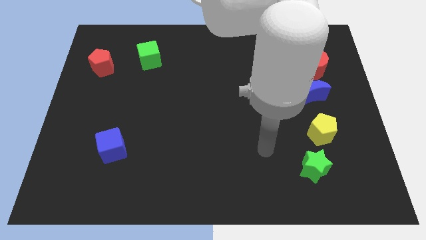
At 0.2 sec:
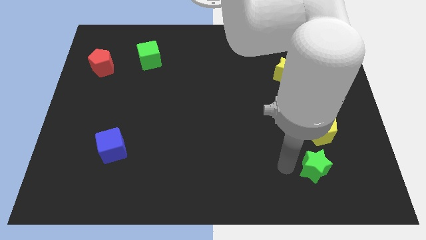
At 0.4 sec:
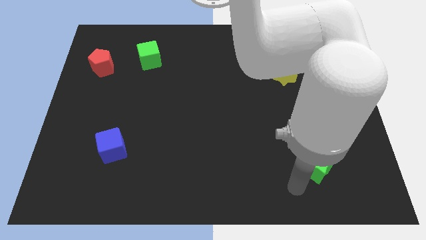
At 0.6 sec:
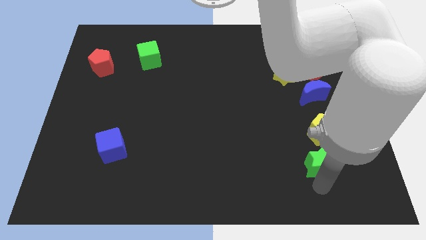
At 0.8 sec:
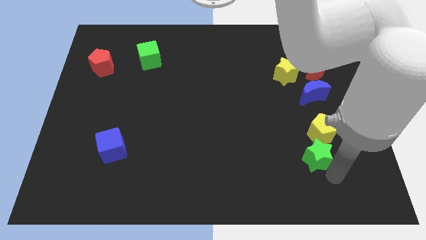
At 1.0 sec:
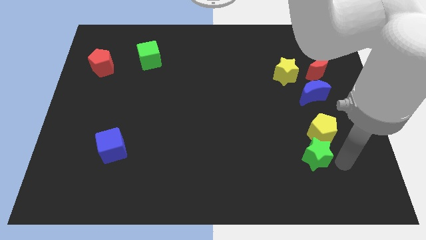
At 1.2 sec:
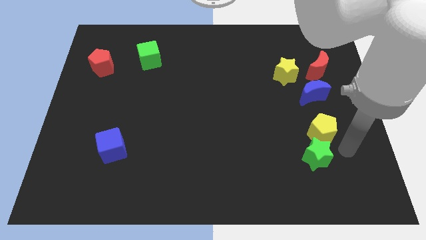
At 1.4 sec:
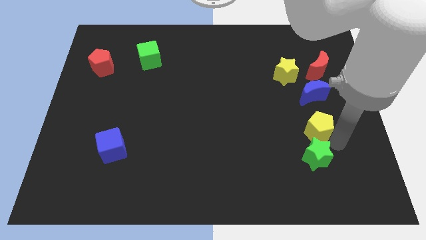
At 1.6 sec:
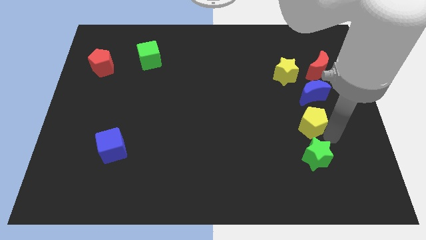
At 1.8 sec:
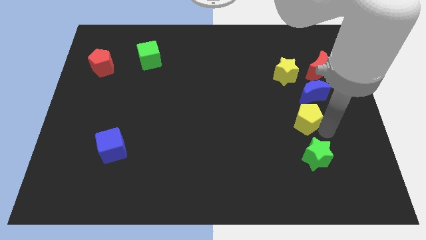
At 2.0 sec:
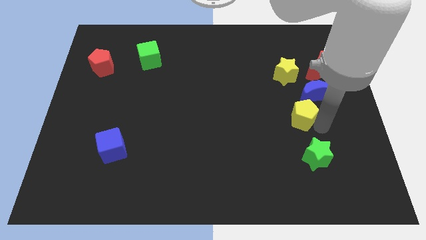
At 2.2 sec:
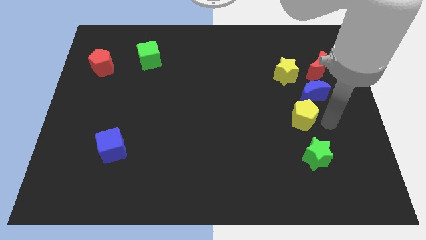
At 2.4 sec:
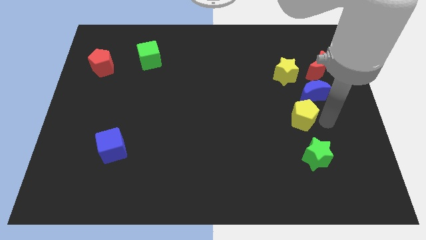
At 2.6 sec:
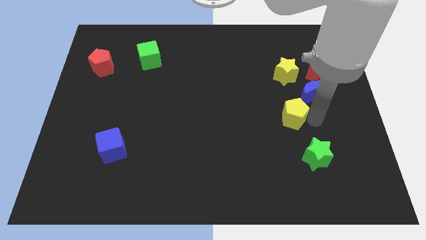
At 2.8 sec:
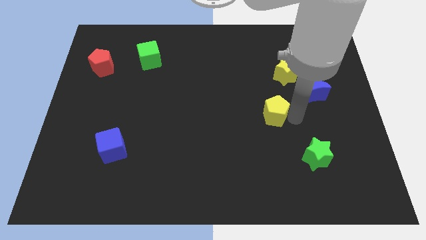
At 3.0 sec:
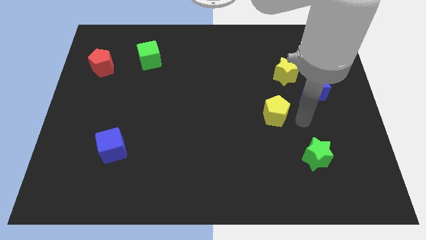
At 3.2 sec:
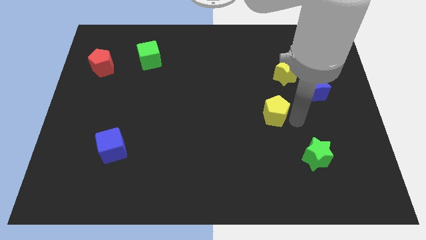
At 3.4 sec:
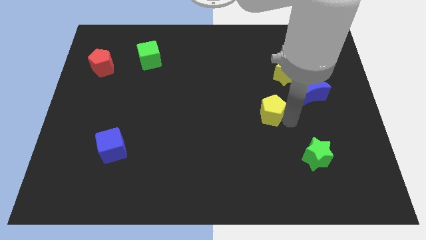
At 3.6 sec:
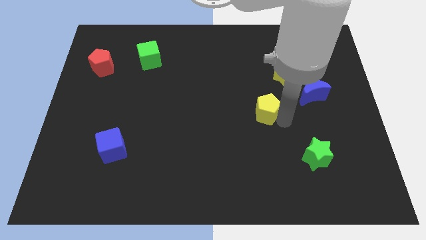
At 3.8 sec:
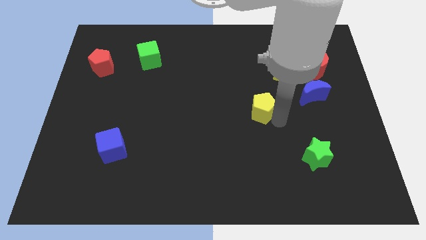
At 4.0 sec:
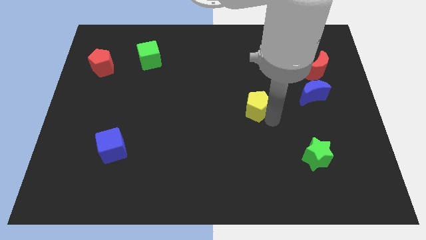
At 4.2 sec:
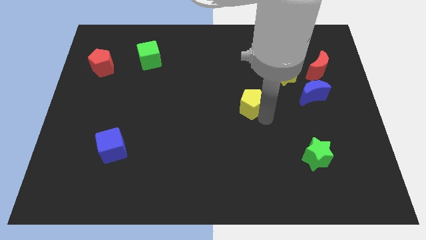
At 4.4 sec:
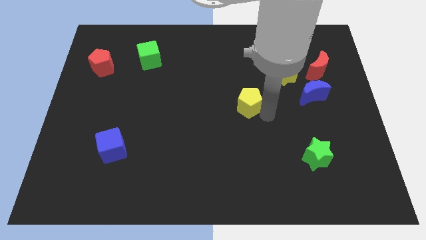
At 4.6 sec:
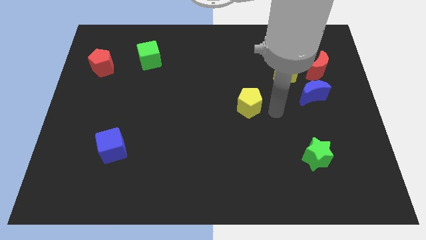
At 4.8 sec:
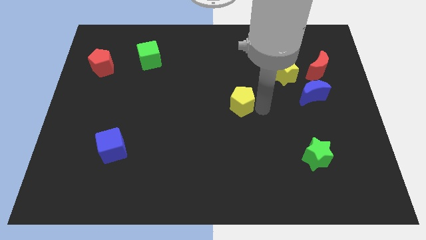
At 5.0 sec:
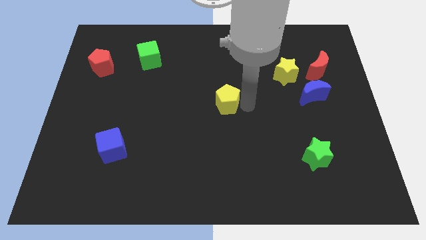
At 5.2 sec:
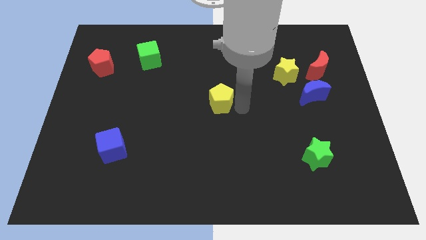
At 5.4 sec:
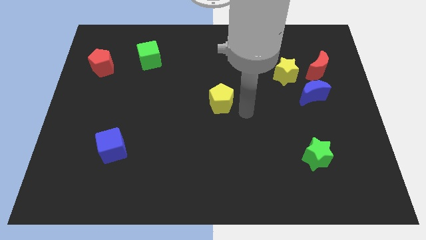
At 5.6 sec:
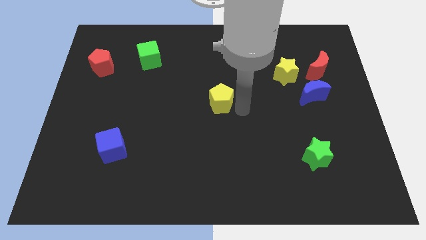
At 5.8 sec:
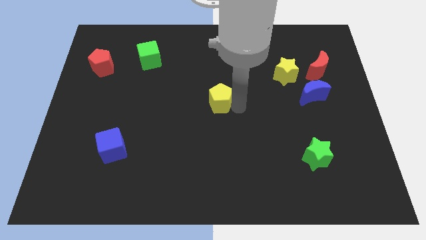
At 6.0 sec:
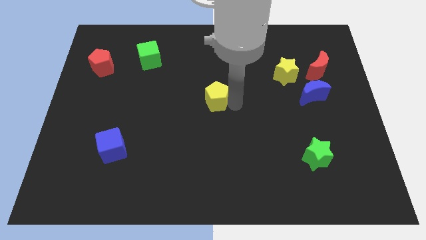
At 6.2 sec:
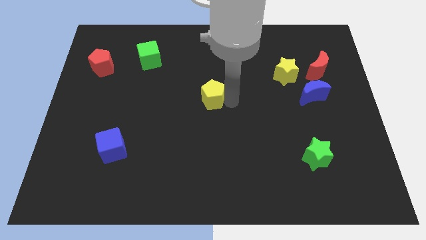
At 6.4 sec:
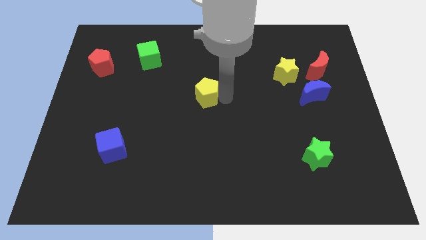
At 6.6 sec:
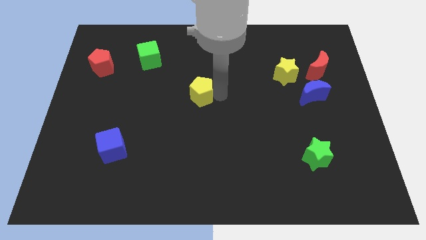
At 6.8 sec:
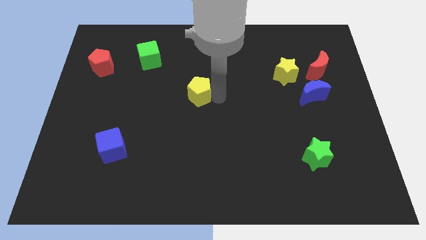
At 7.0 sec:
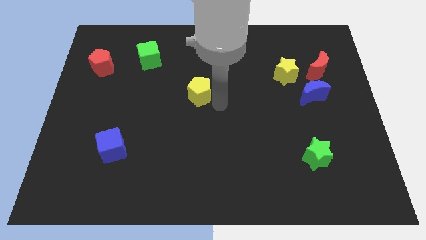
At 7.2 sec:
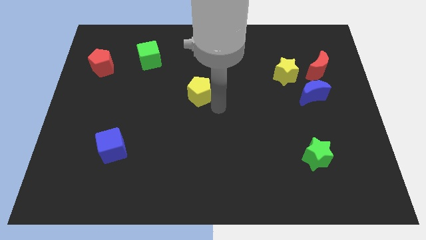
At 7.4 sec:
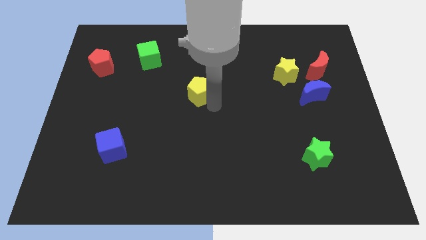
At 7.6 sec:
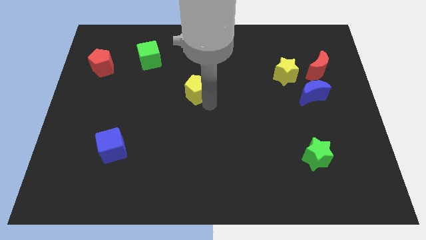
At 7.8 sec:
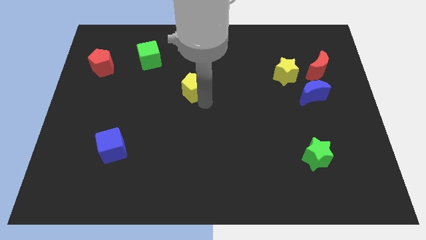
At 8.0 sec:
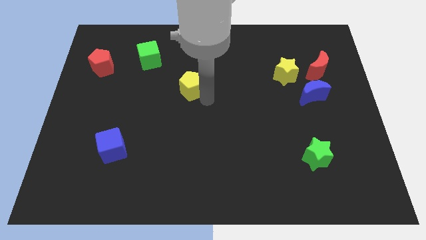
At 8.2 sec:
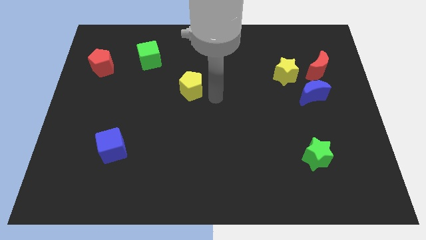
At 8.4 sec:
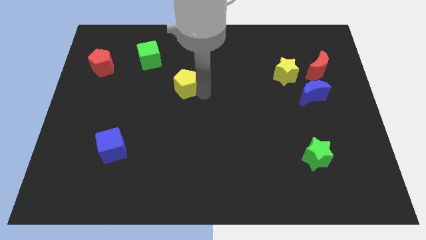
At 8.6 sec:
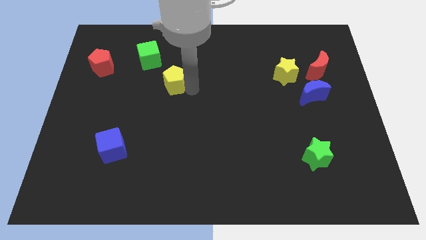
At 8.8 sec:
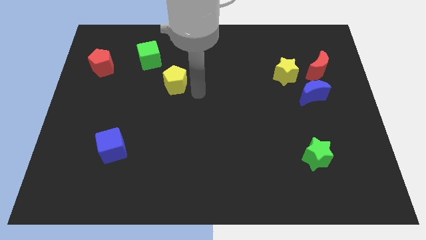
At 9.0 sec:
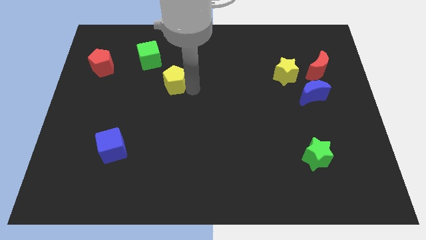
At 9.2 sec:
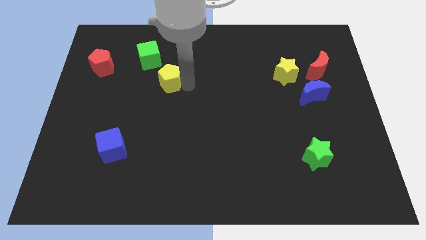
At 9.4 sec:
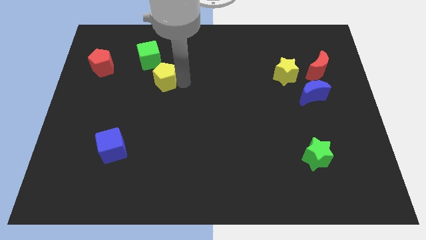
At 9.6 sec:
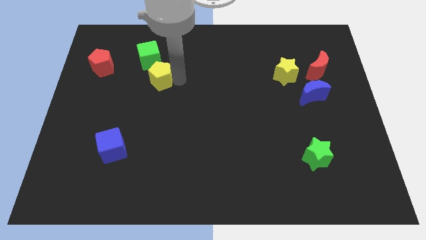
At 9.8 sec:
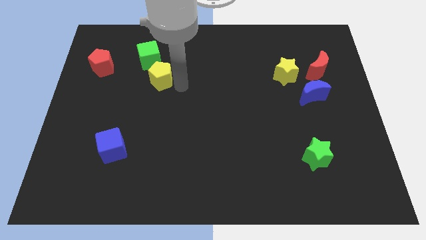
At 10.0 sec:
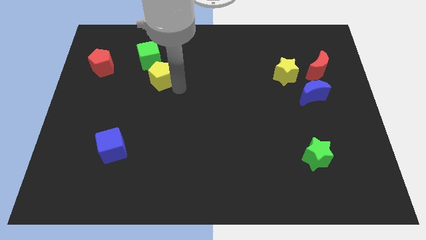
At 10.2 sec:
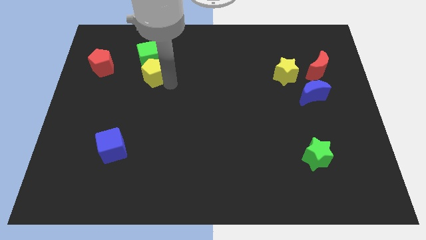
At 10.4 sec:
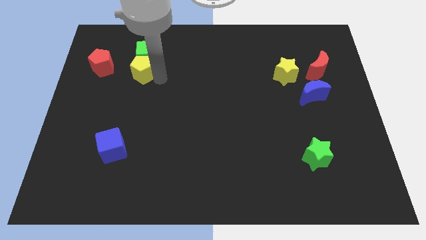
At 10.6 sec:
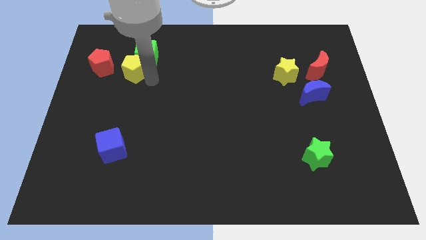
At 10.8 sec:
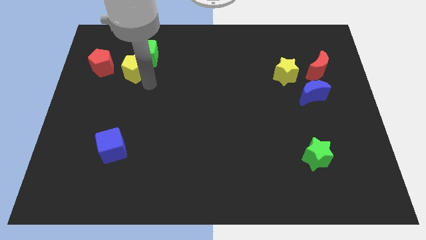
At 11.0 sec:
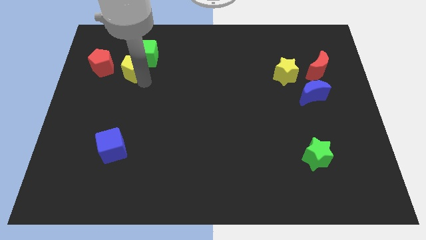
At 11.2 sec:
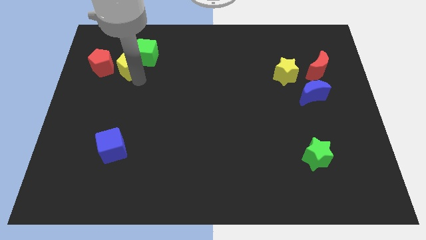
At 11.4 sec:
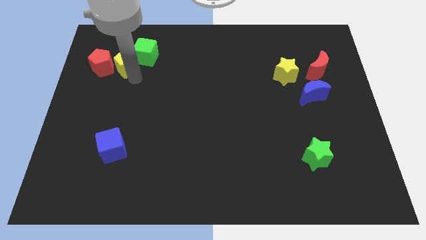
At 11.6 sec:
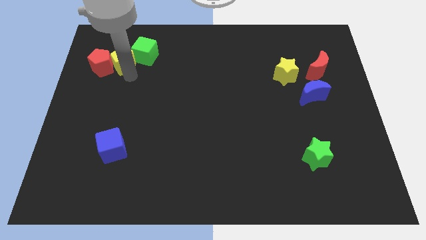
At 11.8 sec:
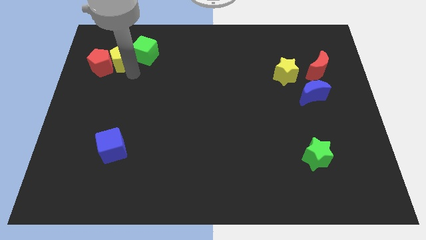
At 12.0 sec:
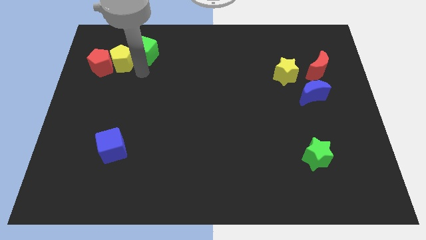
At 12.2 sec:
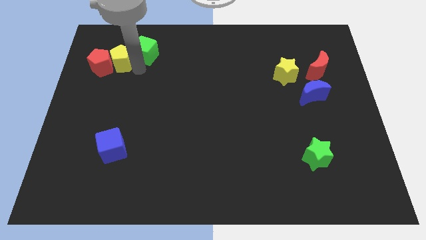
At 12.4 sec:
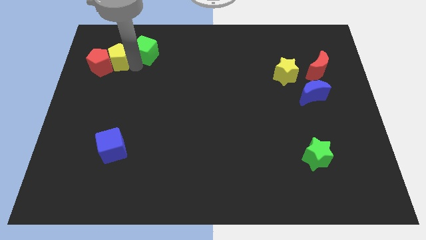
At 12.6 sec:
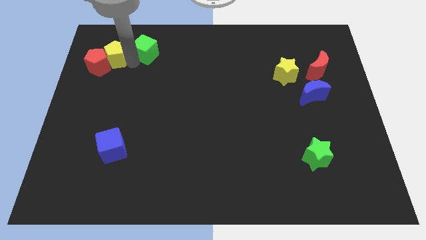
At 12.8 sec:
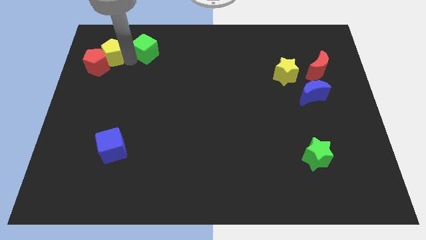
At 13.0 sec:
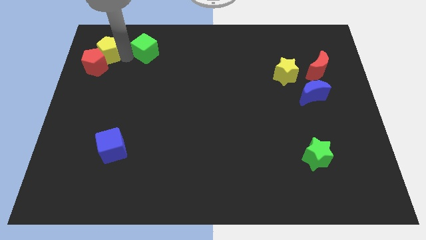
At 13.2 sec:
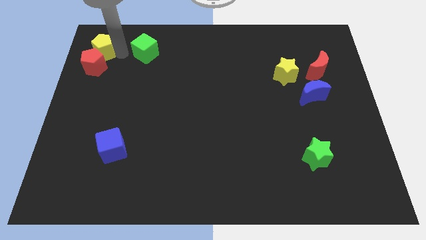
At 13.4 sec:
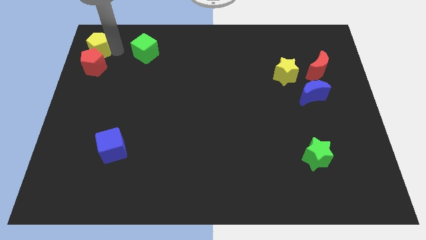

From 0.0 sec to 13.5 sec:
move the yellow pentagon to the top left of the board
